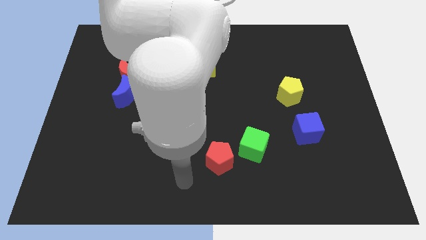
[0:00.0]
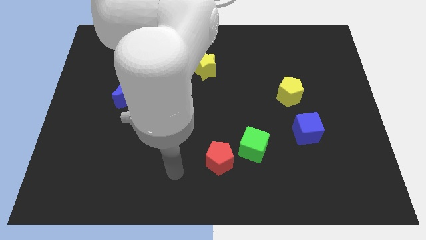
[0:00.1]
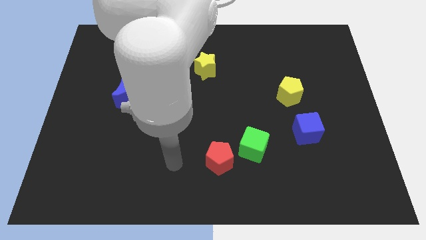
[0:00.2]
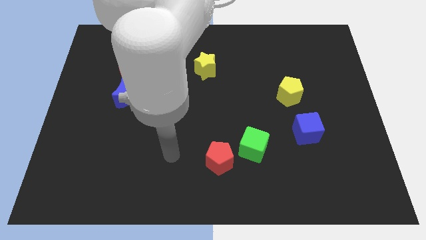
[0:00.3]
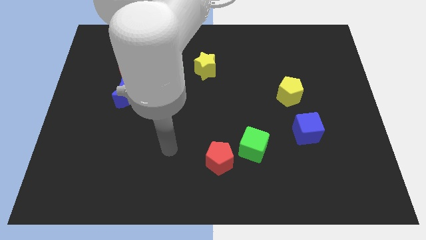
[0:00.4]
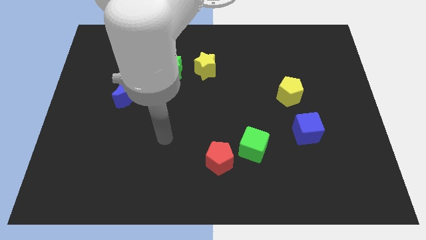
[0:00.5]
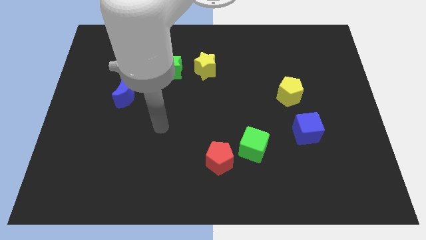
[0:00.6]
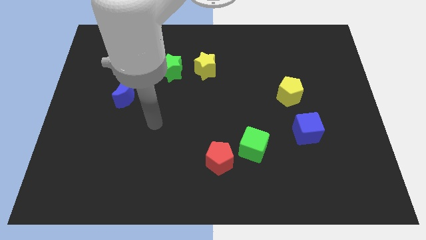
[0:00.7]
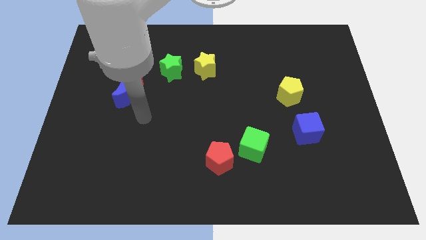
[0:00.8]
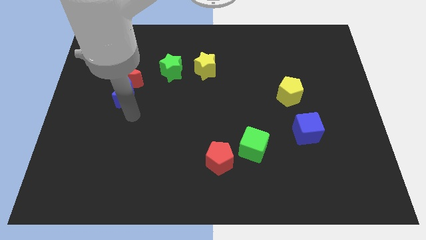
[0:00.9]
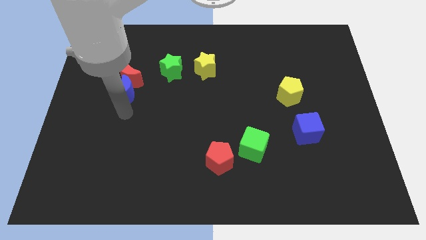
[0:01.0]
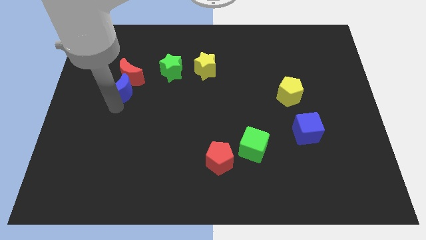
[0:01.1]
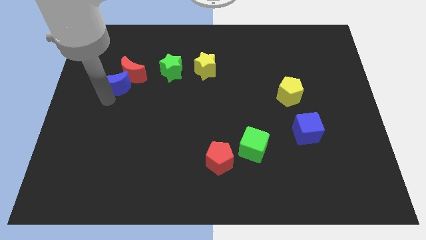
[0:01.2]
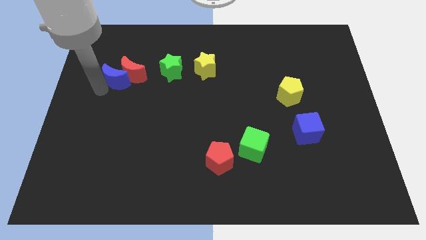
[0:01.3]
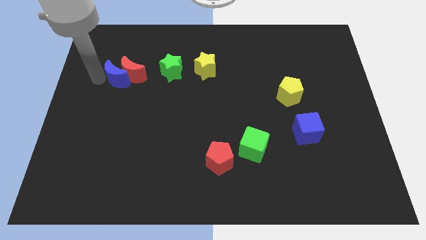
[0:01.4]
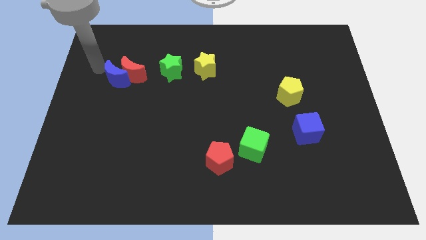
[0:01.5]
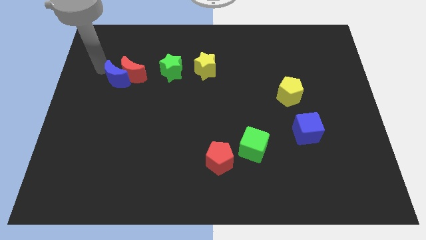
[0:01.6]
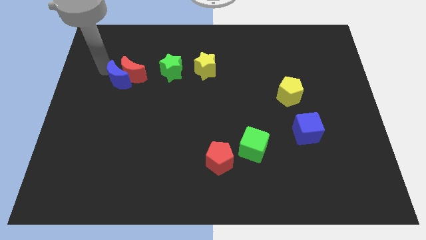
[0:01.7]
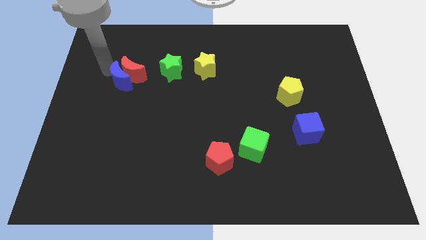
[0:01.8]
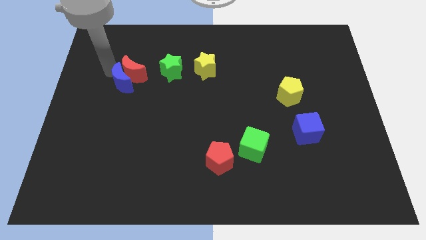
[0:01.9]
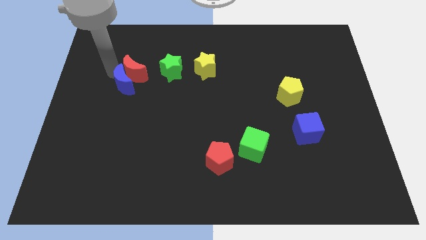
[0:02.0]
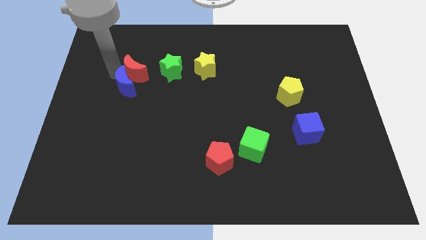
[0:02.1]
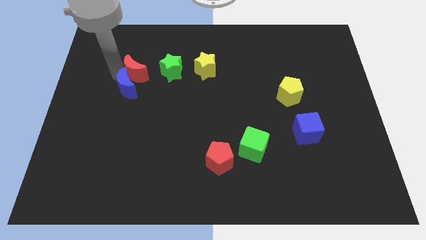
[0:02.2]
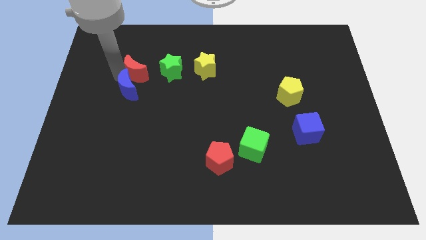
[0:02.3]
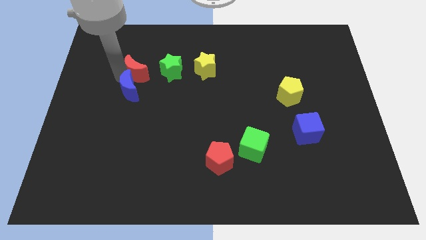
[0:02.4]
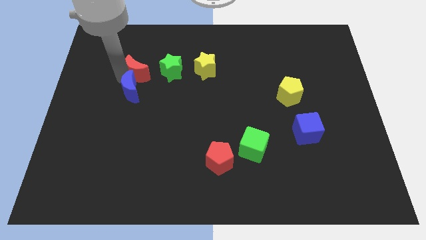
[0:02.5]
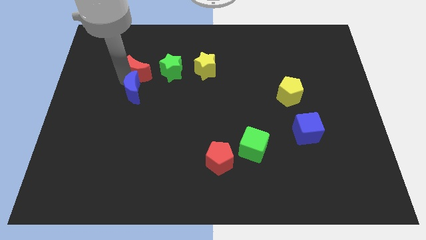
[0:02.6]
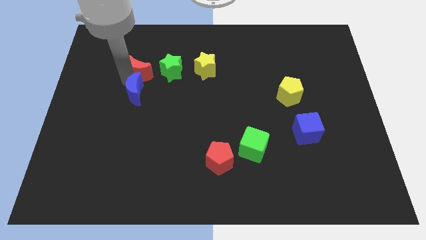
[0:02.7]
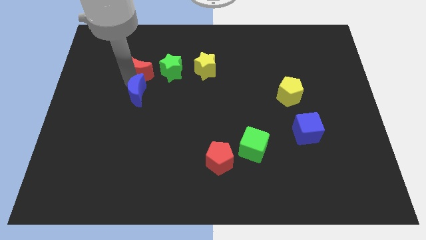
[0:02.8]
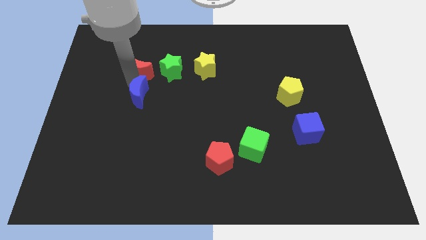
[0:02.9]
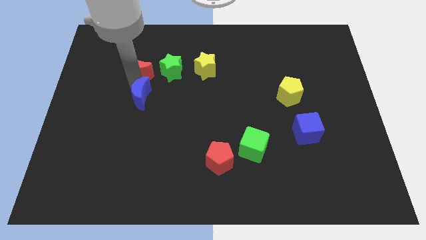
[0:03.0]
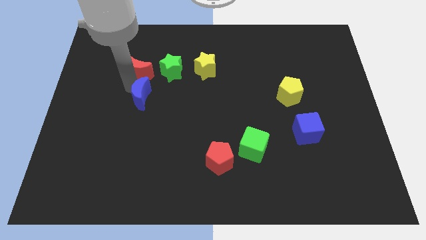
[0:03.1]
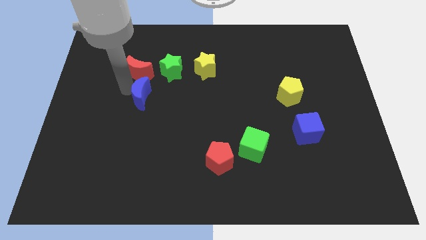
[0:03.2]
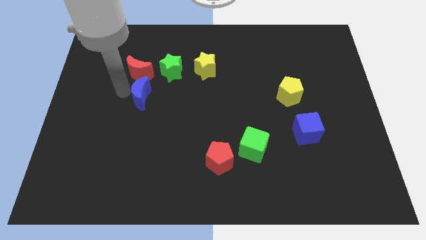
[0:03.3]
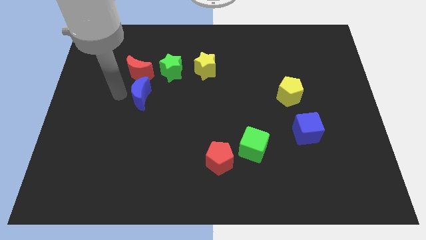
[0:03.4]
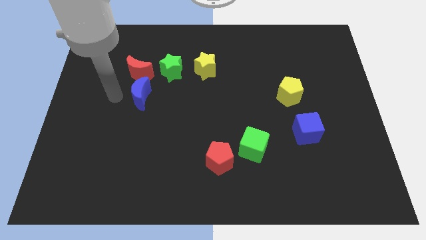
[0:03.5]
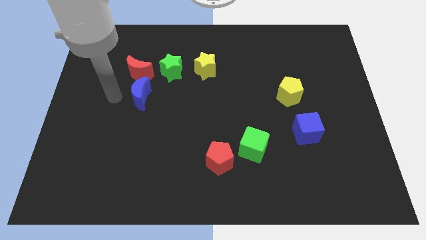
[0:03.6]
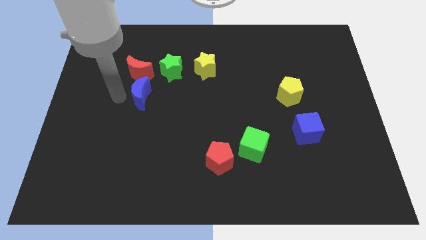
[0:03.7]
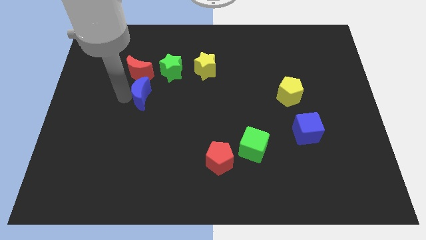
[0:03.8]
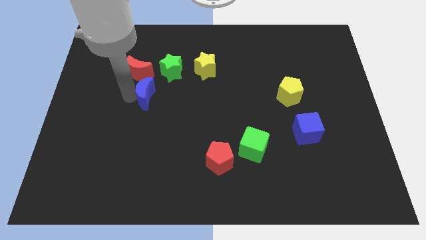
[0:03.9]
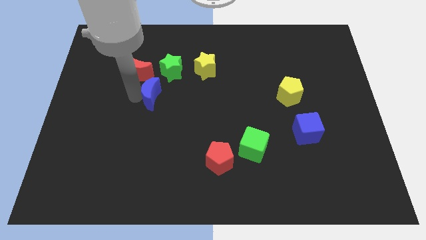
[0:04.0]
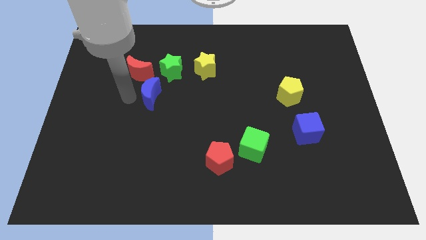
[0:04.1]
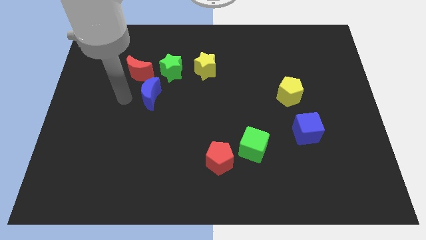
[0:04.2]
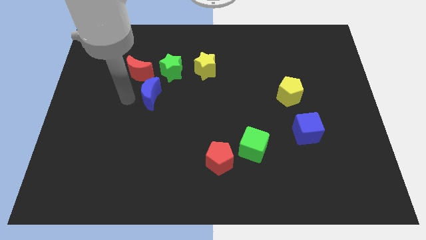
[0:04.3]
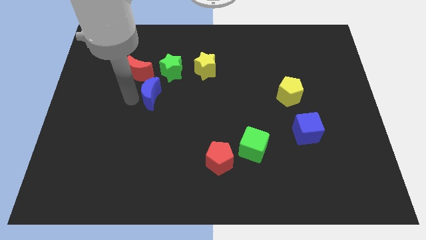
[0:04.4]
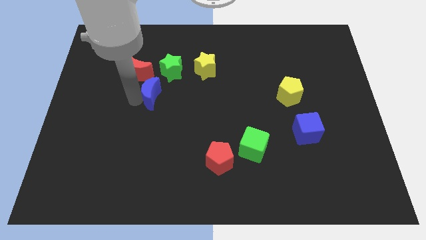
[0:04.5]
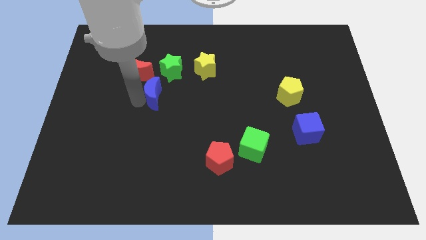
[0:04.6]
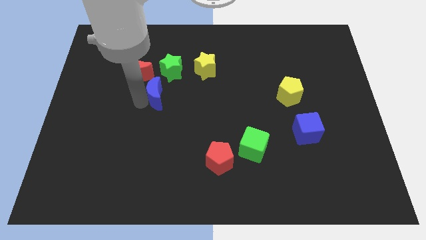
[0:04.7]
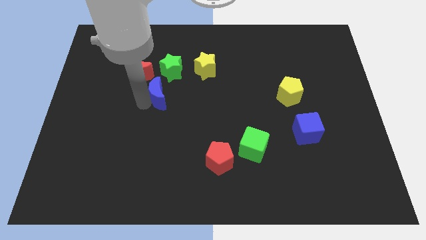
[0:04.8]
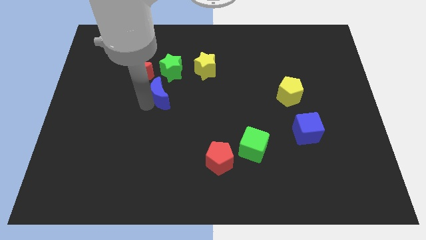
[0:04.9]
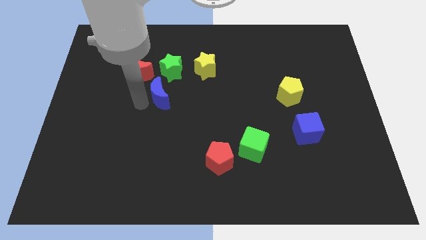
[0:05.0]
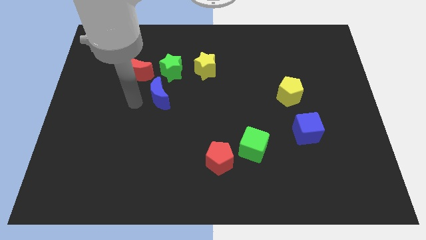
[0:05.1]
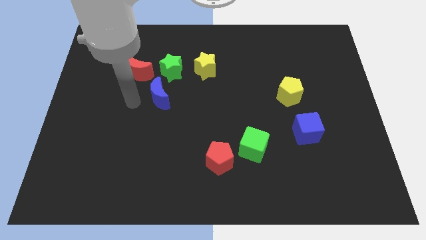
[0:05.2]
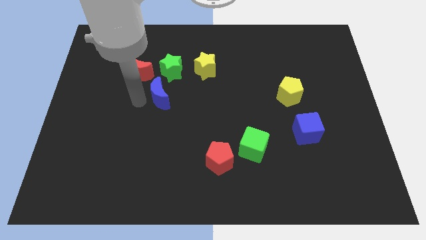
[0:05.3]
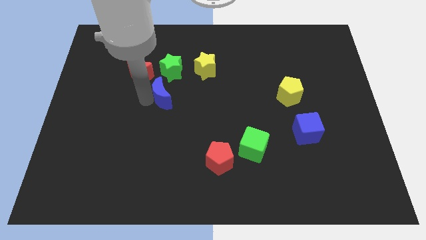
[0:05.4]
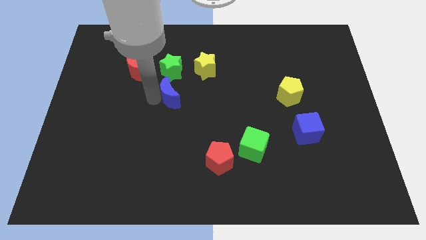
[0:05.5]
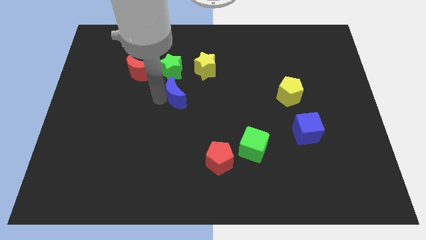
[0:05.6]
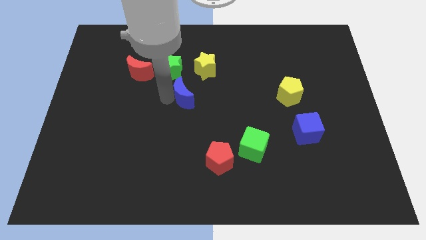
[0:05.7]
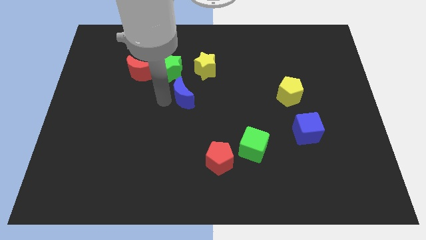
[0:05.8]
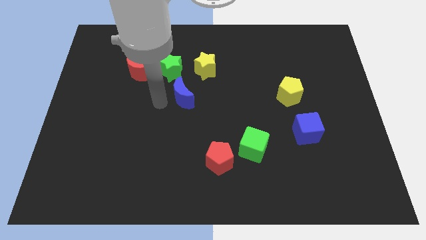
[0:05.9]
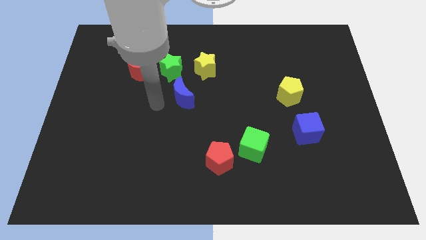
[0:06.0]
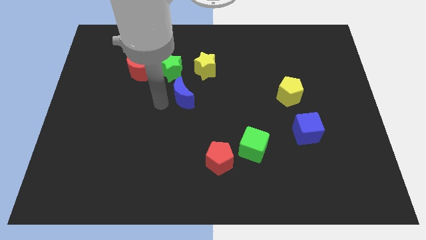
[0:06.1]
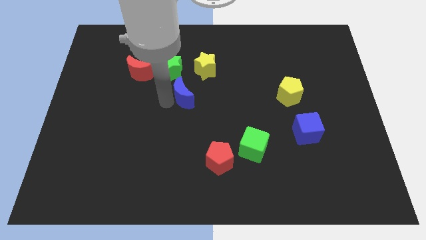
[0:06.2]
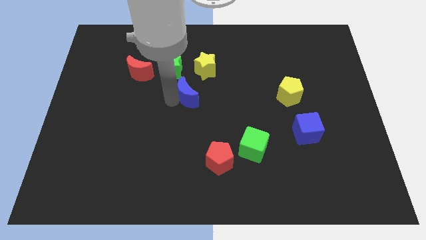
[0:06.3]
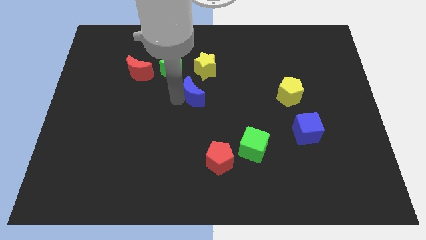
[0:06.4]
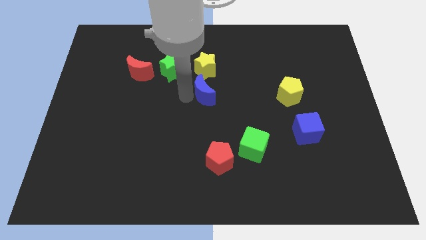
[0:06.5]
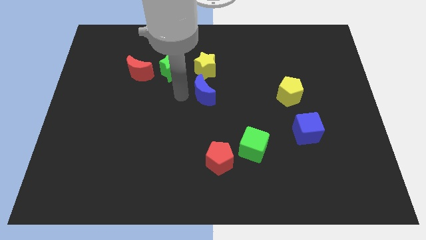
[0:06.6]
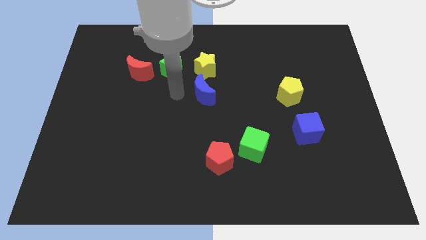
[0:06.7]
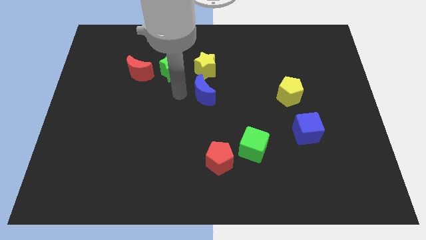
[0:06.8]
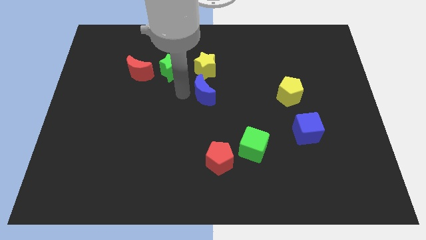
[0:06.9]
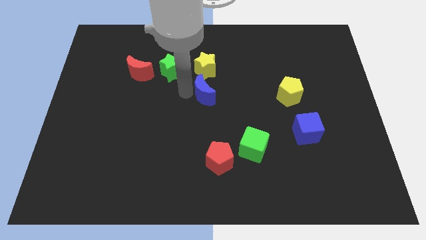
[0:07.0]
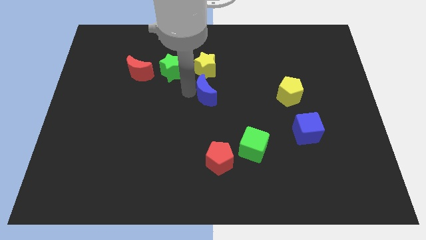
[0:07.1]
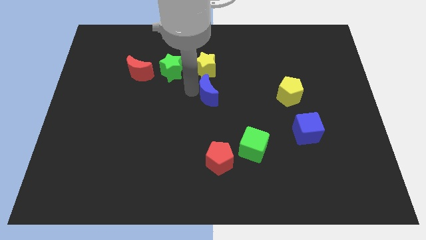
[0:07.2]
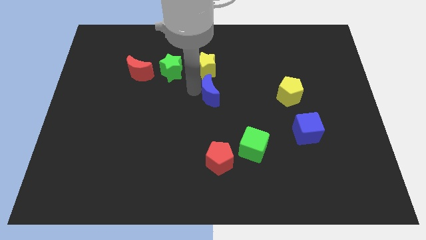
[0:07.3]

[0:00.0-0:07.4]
move the blue moon right
